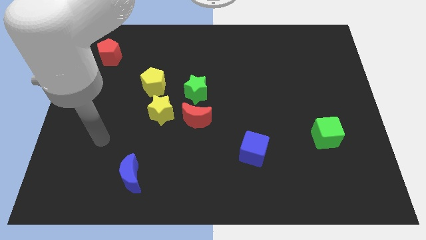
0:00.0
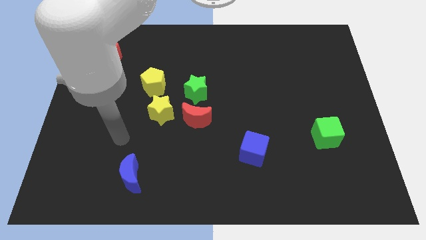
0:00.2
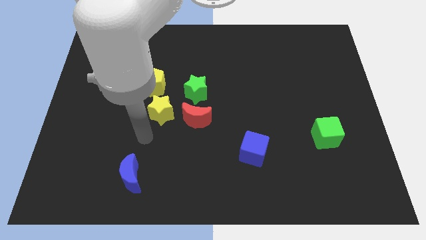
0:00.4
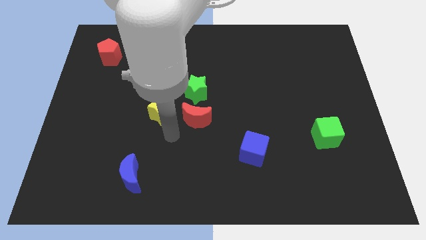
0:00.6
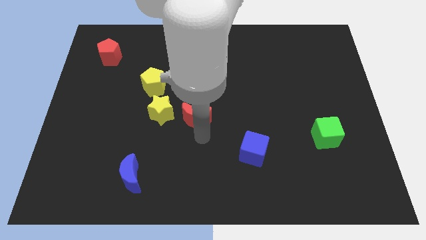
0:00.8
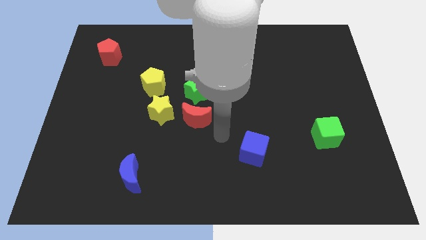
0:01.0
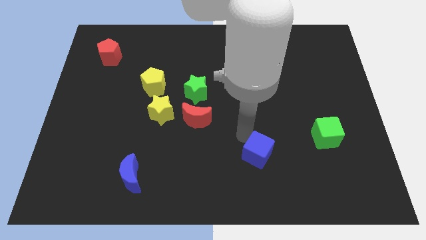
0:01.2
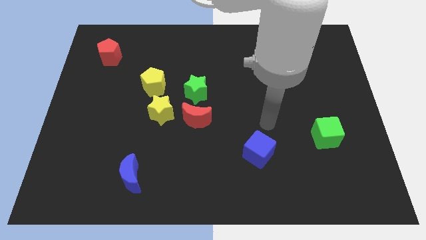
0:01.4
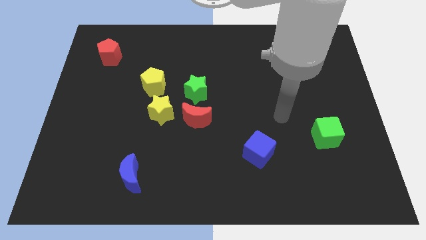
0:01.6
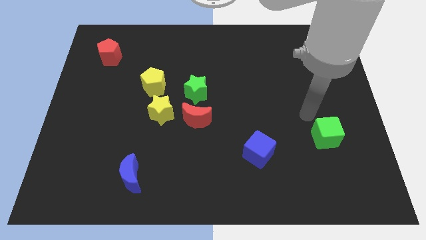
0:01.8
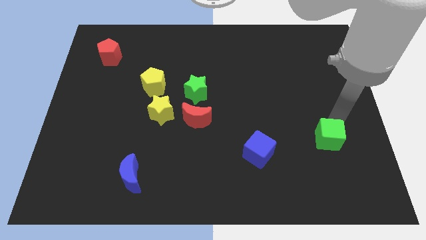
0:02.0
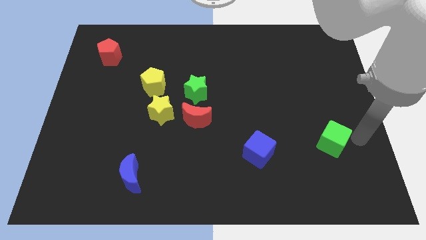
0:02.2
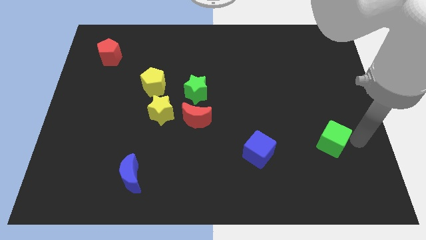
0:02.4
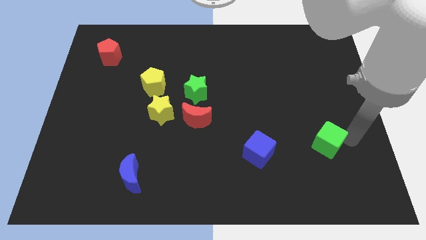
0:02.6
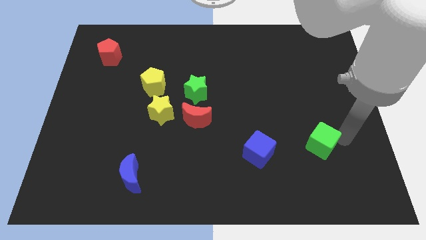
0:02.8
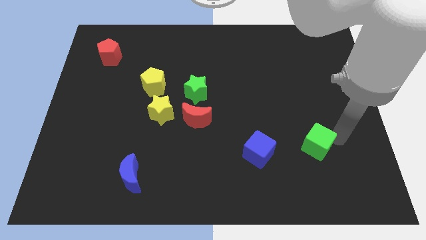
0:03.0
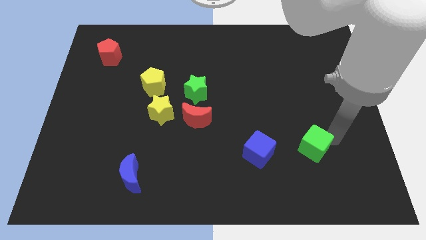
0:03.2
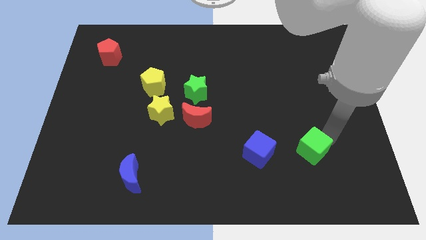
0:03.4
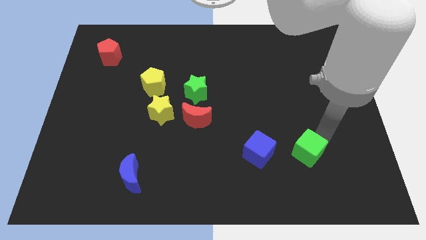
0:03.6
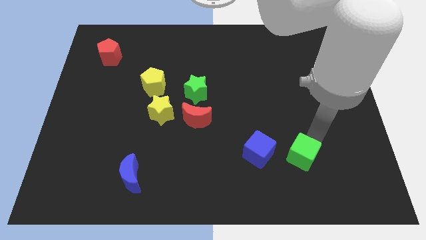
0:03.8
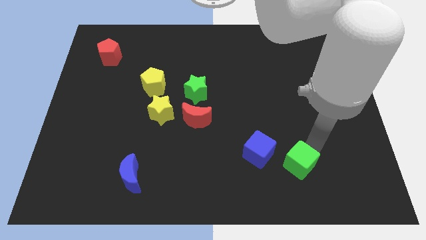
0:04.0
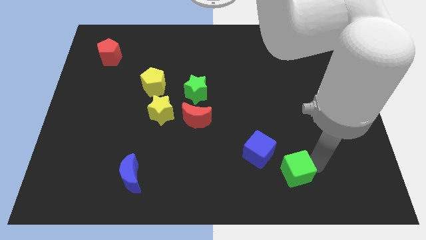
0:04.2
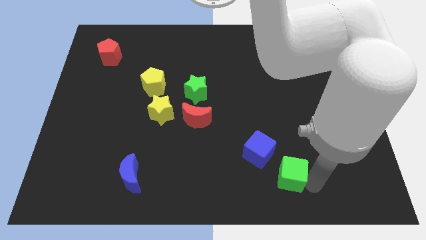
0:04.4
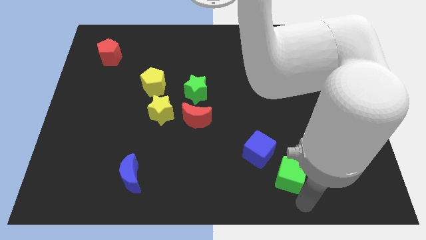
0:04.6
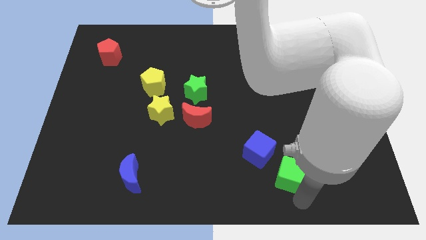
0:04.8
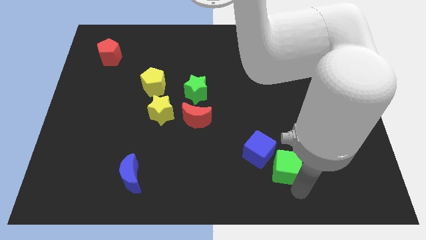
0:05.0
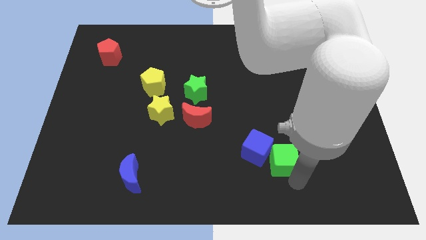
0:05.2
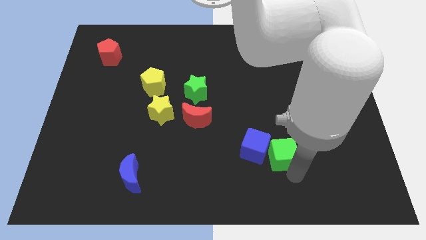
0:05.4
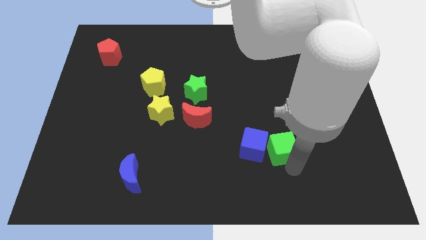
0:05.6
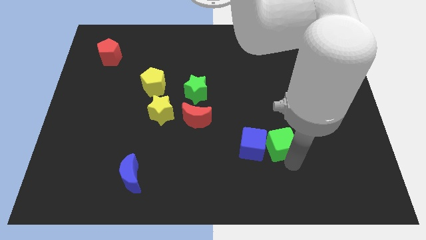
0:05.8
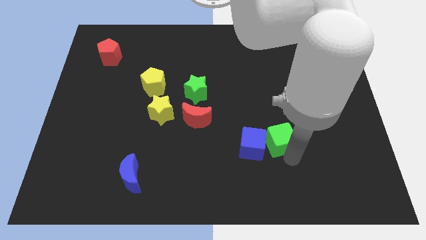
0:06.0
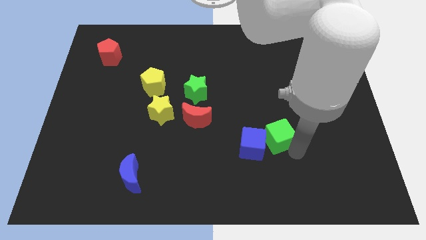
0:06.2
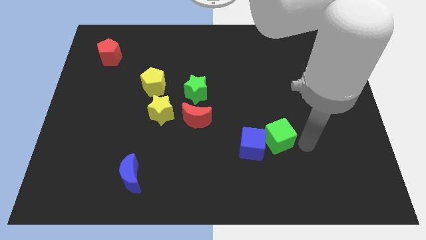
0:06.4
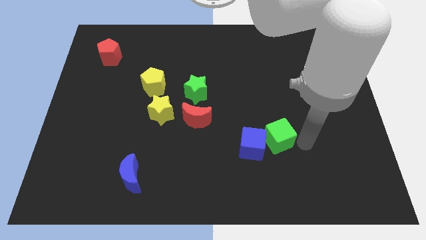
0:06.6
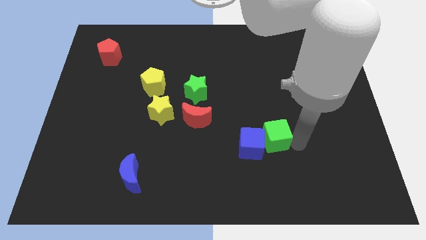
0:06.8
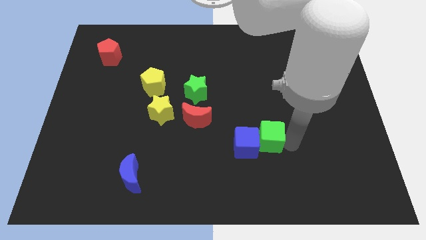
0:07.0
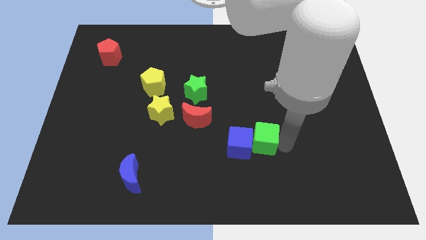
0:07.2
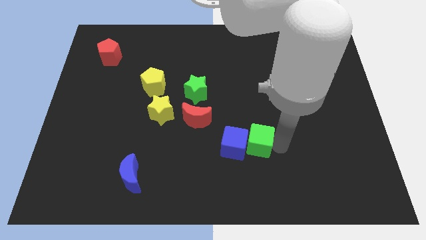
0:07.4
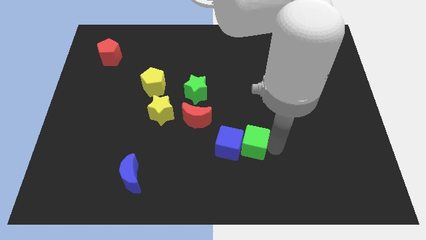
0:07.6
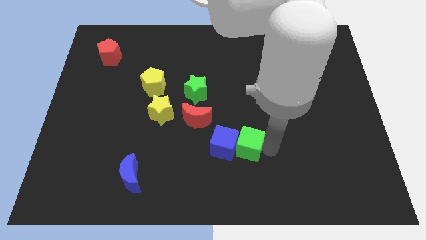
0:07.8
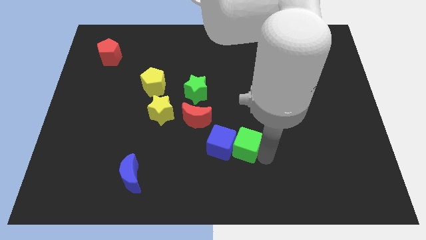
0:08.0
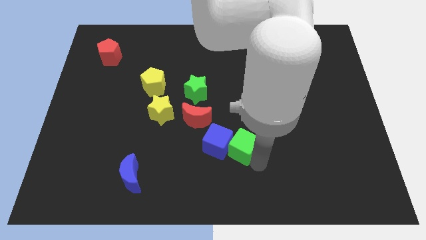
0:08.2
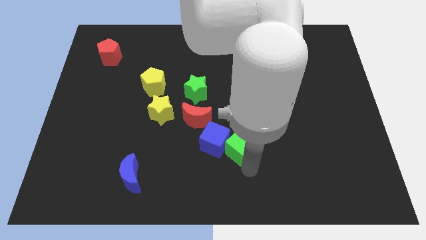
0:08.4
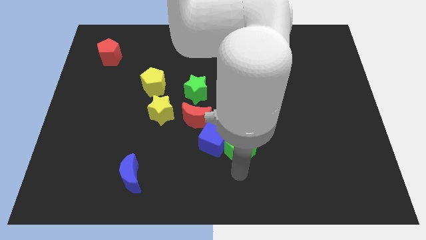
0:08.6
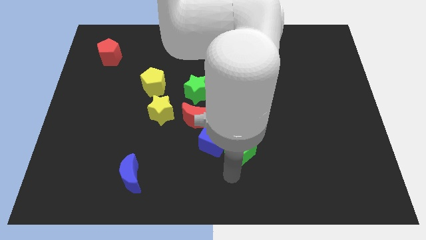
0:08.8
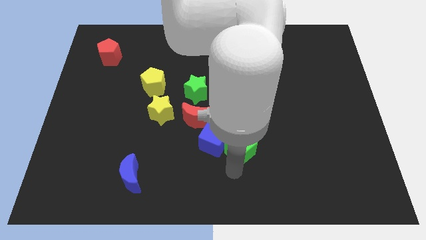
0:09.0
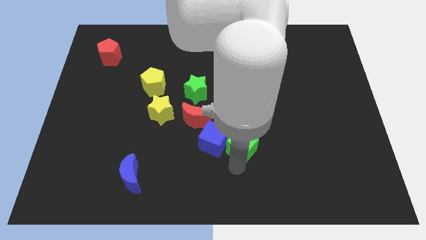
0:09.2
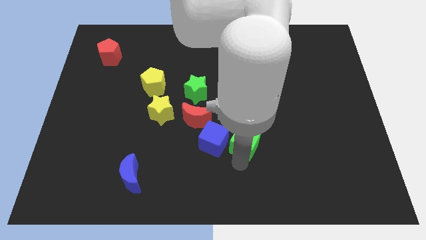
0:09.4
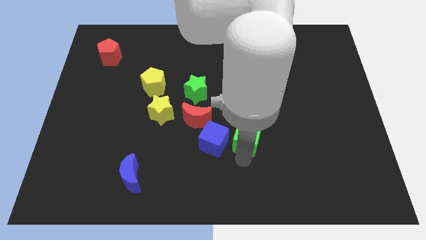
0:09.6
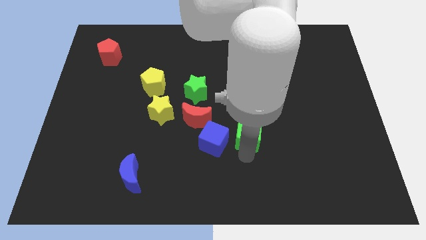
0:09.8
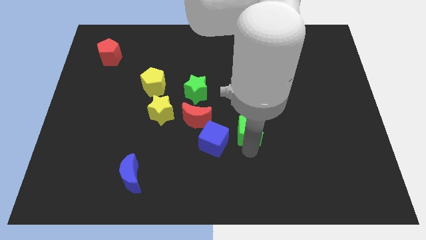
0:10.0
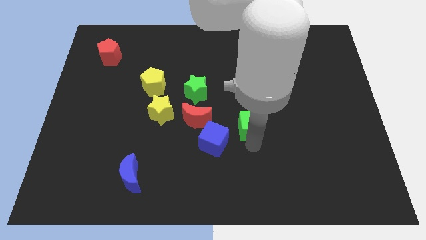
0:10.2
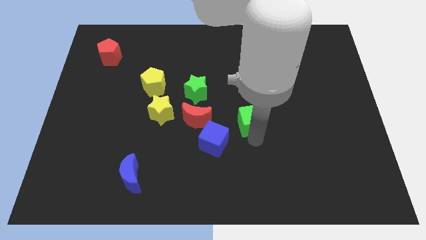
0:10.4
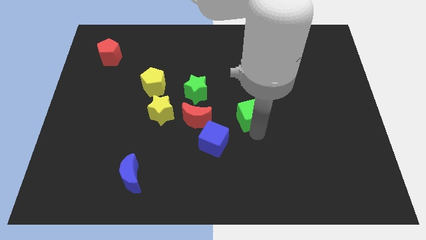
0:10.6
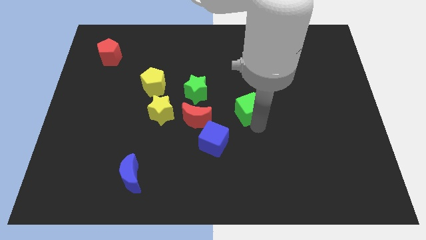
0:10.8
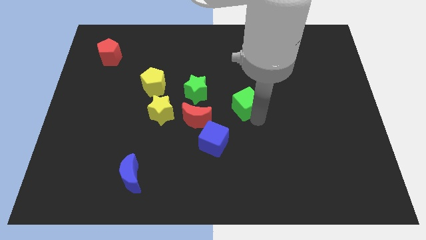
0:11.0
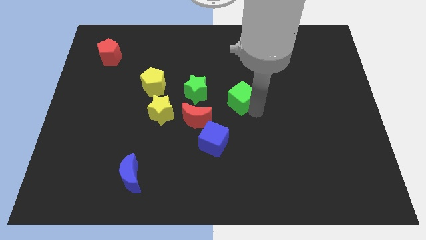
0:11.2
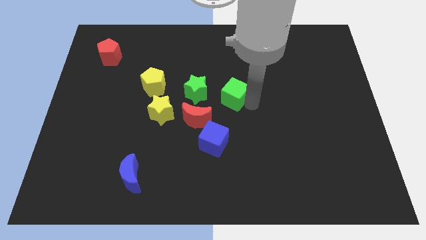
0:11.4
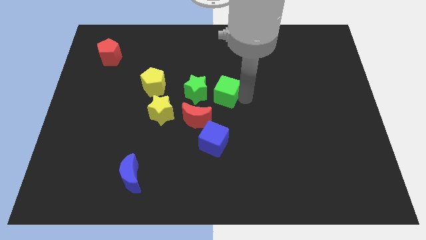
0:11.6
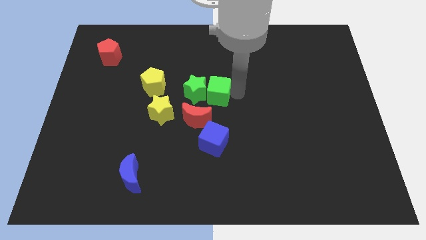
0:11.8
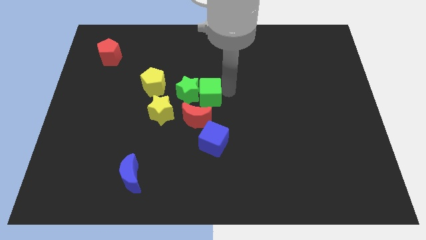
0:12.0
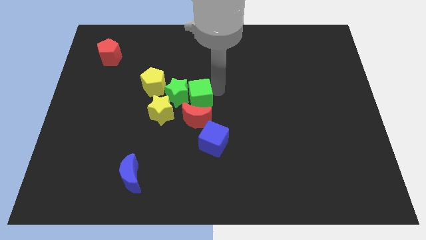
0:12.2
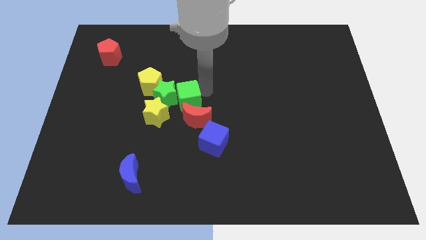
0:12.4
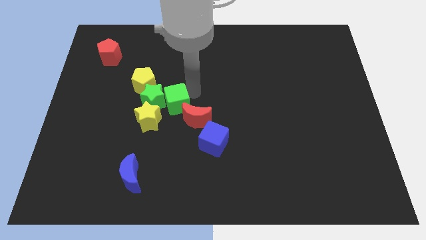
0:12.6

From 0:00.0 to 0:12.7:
push the green cube left of the red moon
